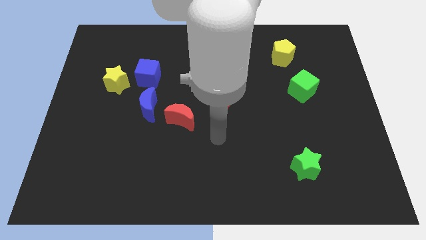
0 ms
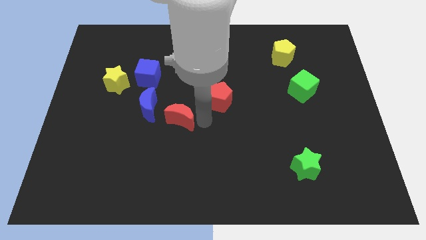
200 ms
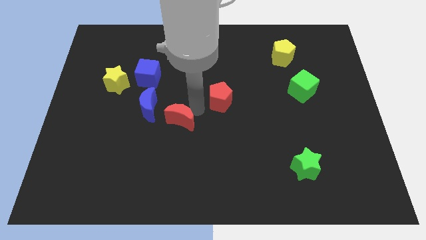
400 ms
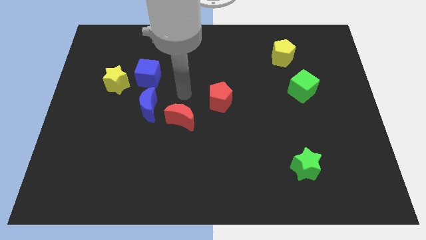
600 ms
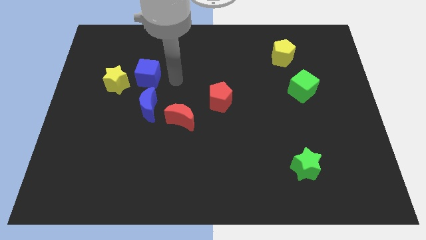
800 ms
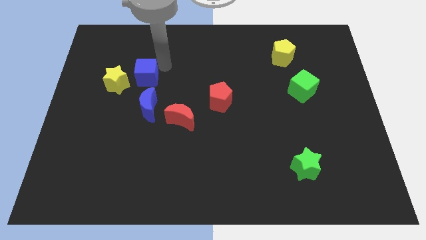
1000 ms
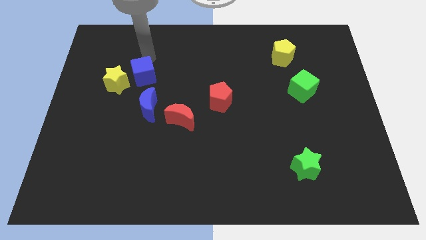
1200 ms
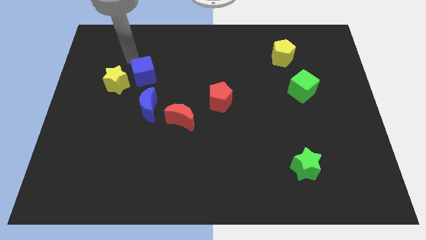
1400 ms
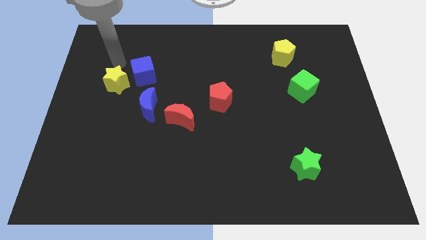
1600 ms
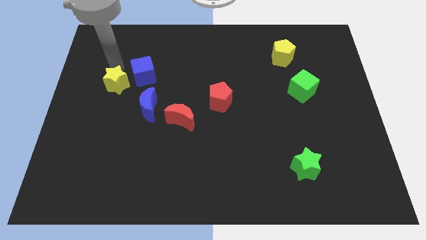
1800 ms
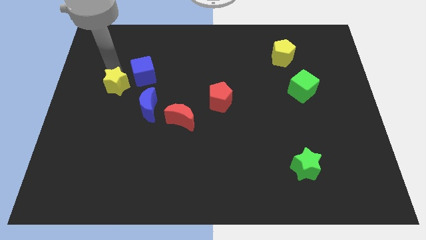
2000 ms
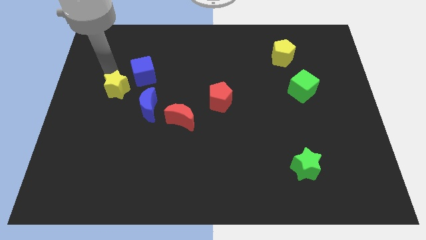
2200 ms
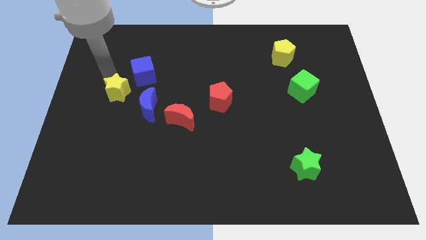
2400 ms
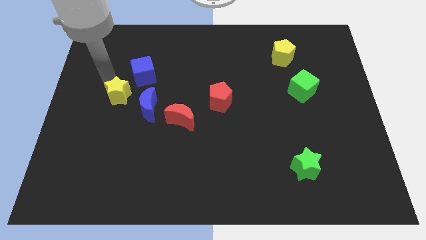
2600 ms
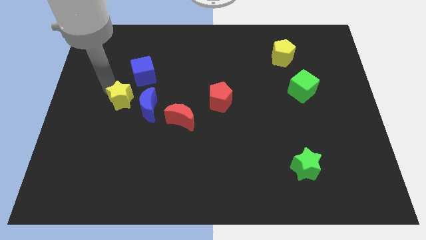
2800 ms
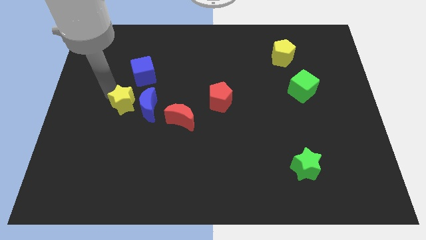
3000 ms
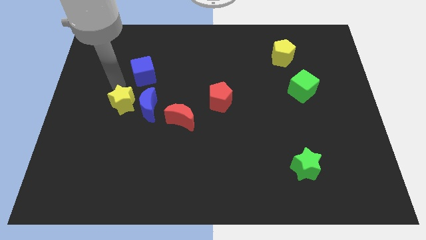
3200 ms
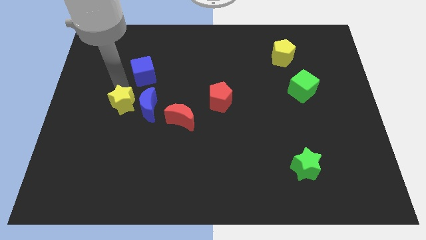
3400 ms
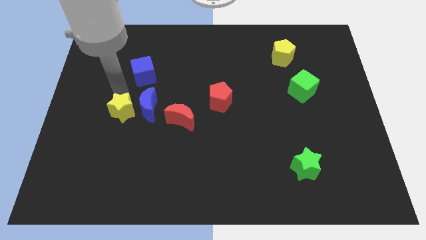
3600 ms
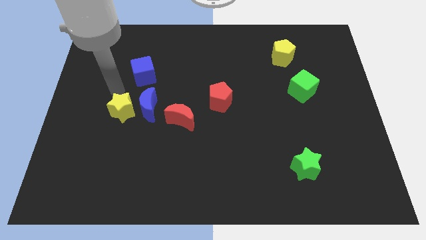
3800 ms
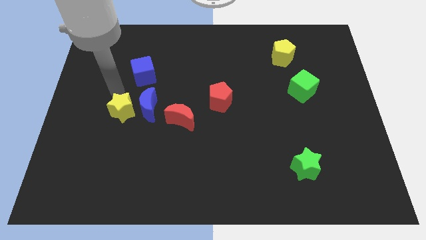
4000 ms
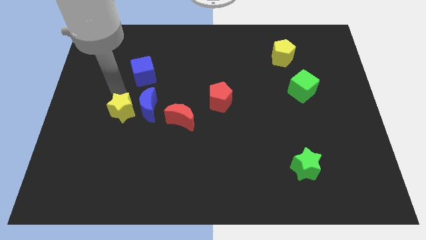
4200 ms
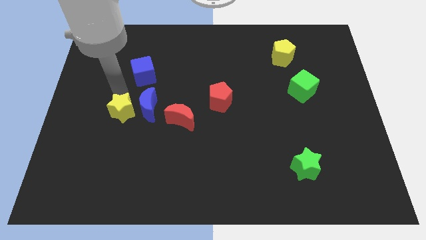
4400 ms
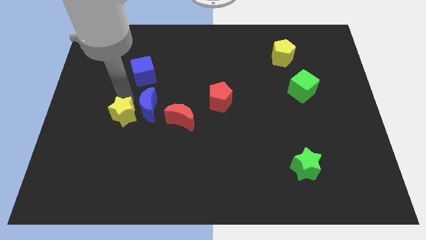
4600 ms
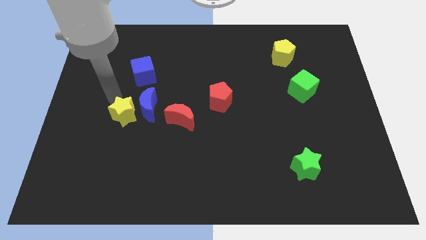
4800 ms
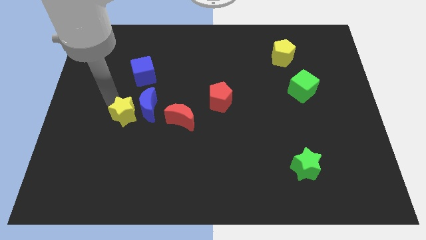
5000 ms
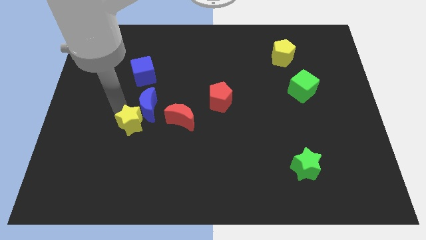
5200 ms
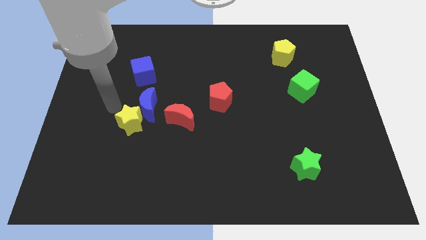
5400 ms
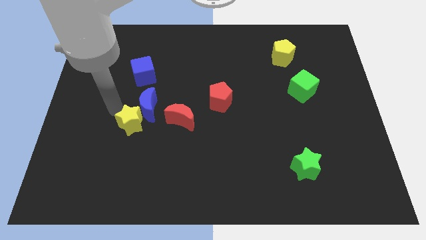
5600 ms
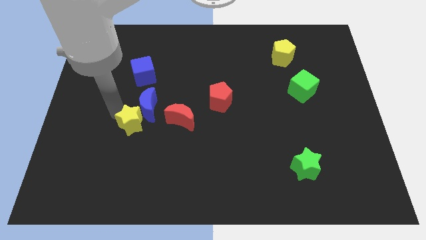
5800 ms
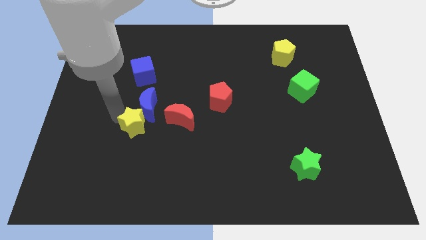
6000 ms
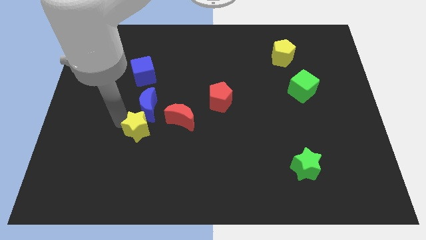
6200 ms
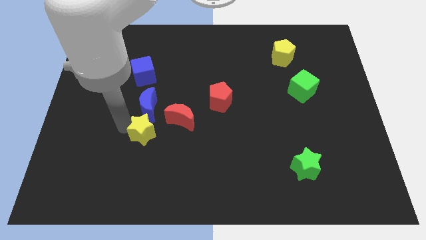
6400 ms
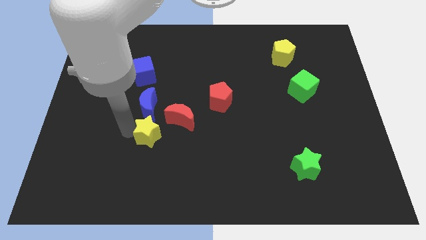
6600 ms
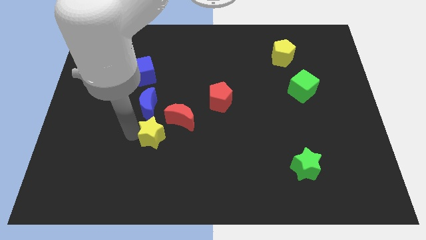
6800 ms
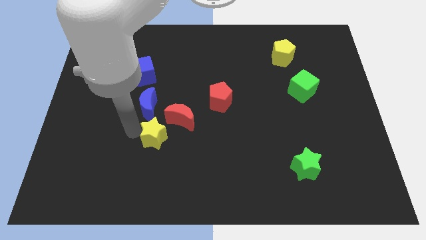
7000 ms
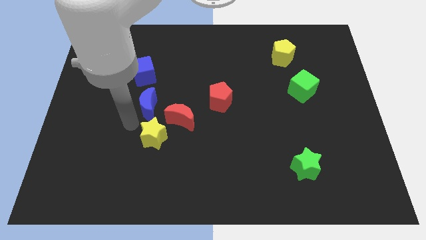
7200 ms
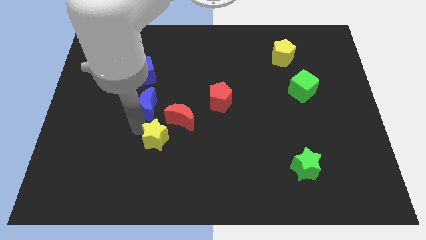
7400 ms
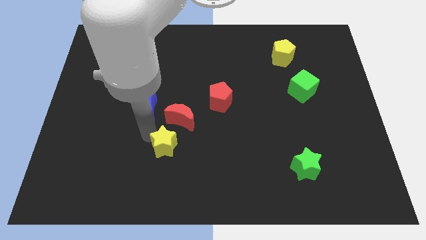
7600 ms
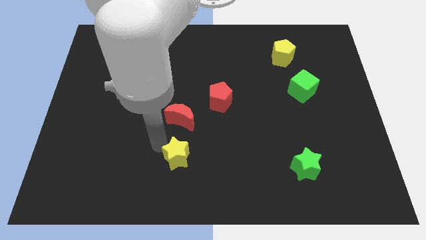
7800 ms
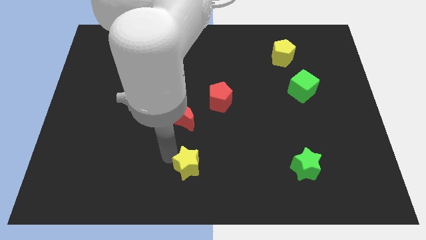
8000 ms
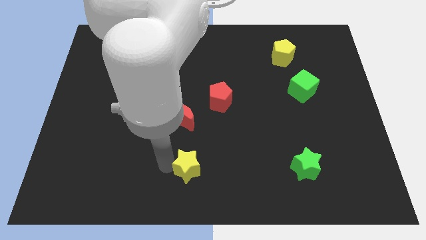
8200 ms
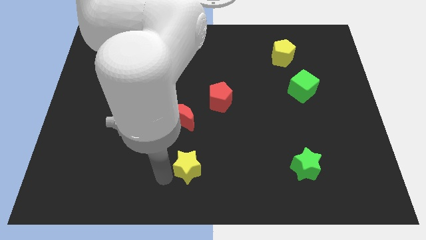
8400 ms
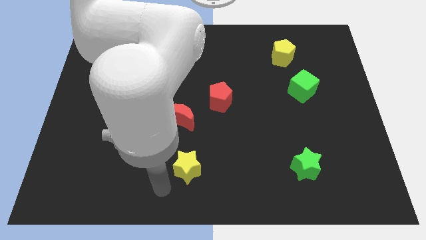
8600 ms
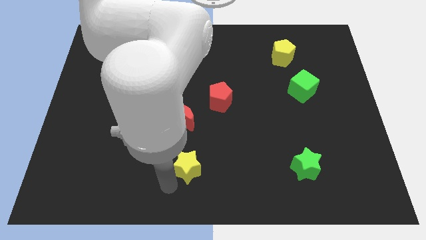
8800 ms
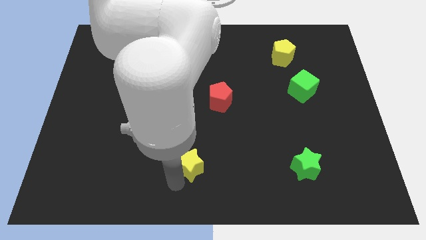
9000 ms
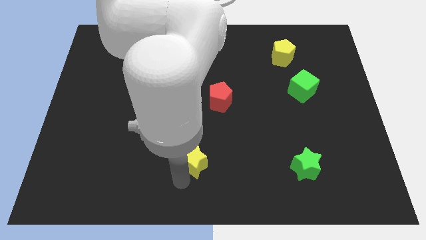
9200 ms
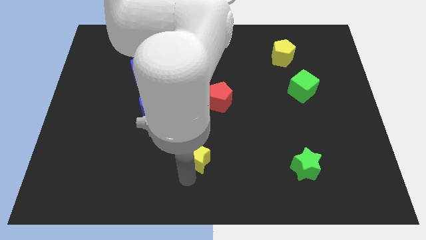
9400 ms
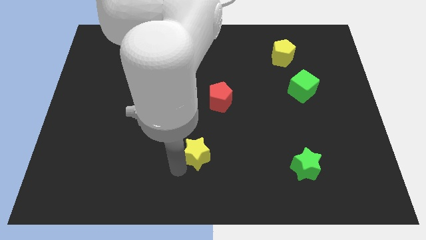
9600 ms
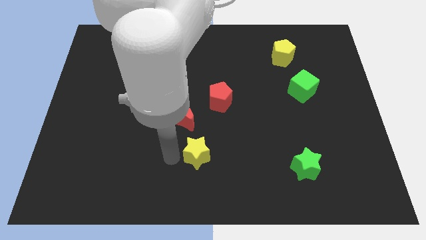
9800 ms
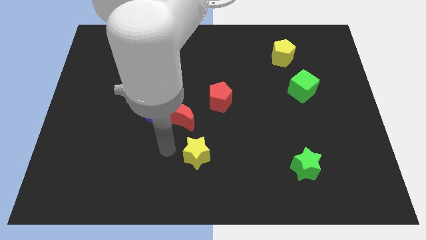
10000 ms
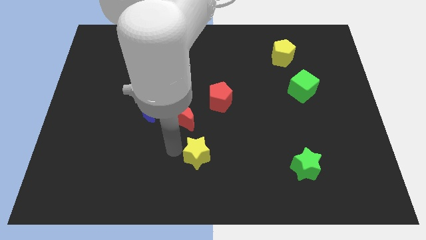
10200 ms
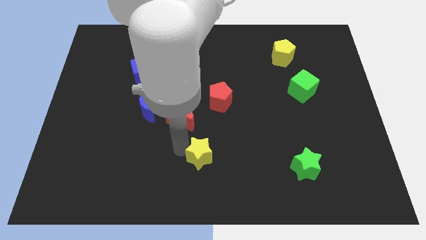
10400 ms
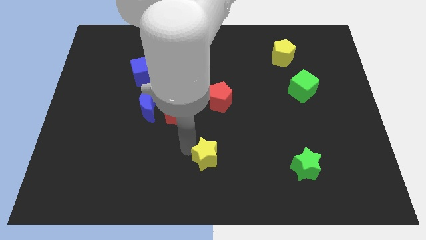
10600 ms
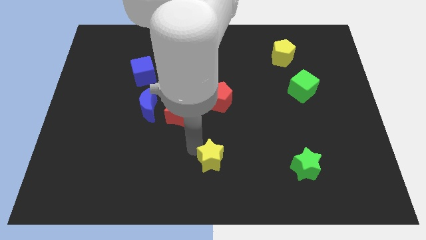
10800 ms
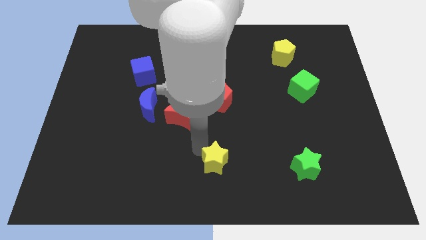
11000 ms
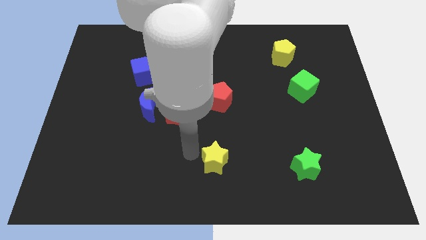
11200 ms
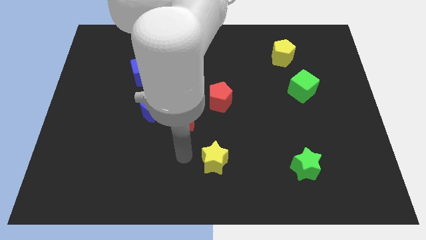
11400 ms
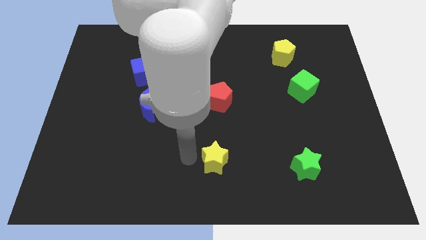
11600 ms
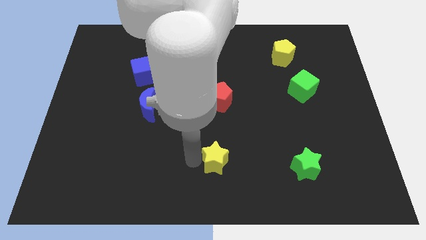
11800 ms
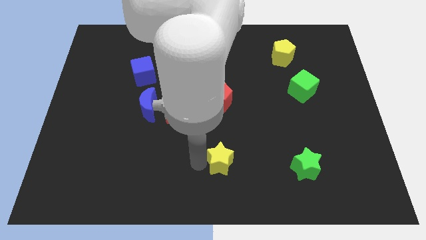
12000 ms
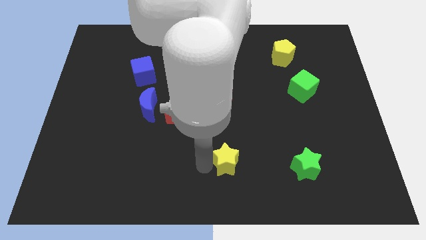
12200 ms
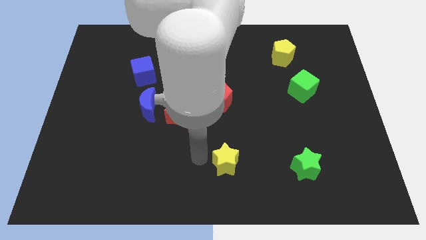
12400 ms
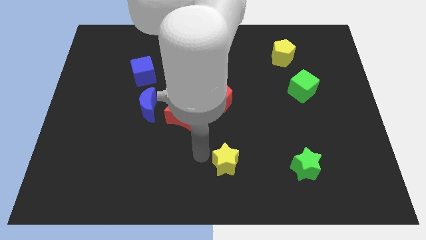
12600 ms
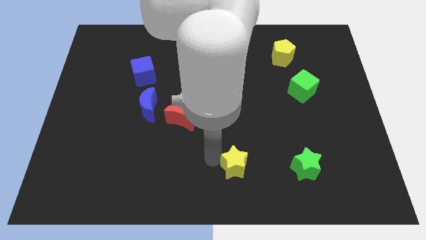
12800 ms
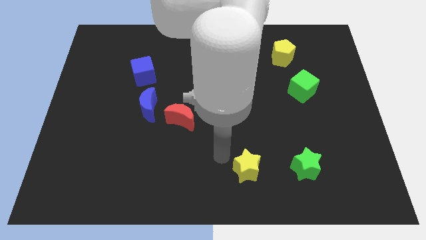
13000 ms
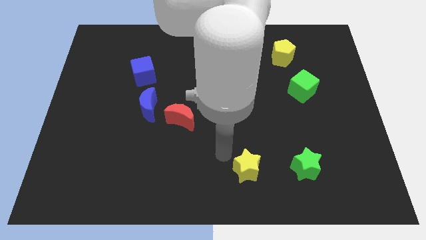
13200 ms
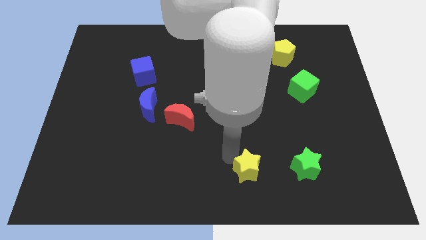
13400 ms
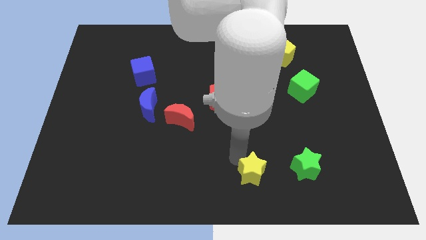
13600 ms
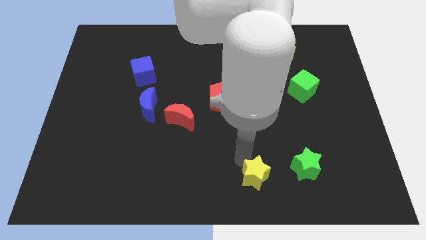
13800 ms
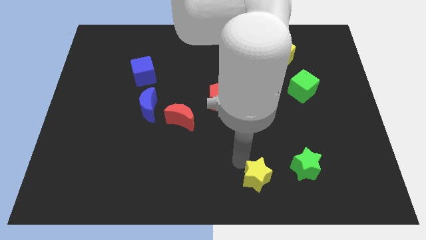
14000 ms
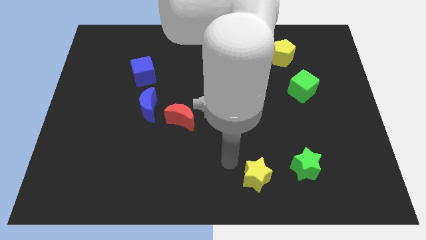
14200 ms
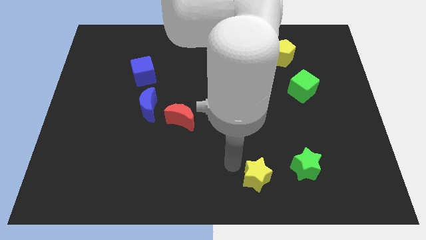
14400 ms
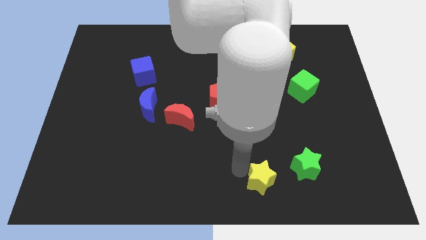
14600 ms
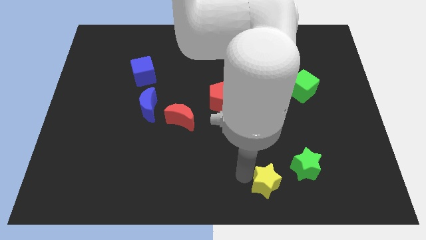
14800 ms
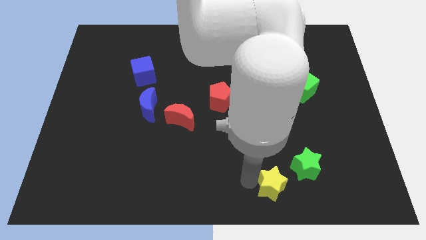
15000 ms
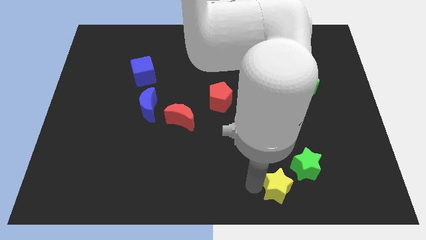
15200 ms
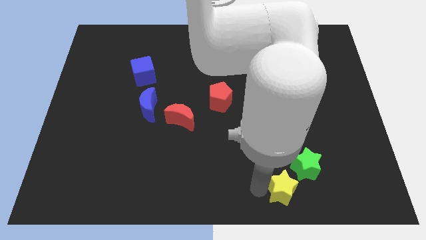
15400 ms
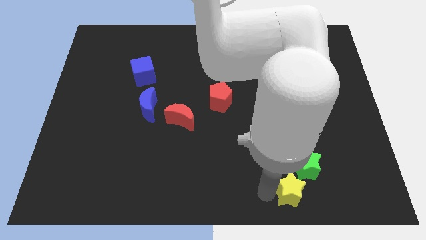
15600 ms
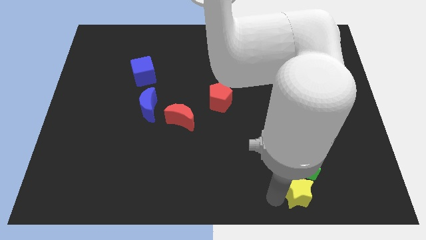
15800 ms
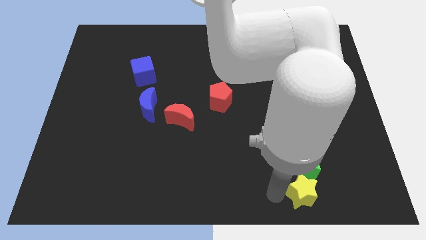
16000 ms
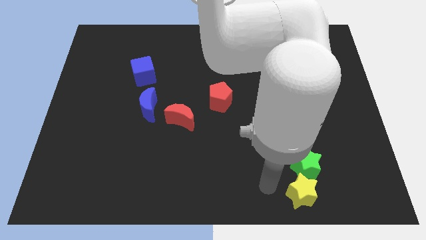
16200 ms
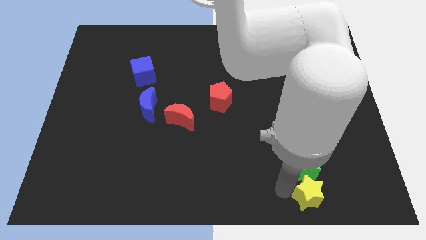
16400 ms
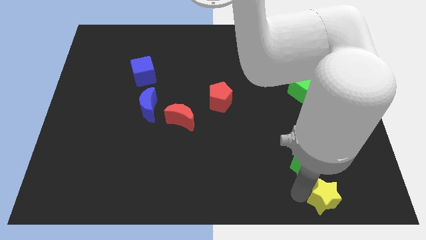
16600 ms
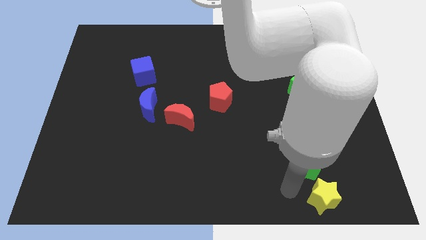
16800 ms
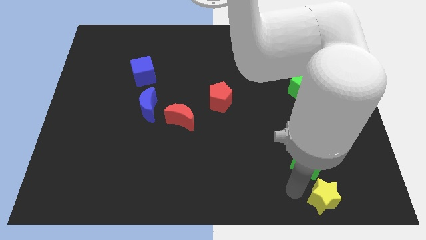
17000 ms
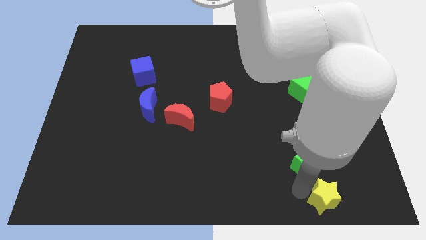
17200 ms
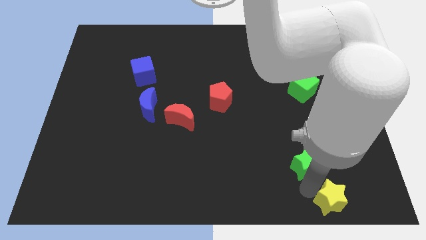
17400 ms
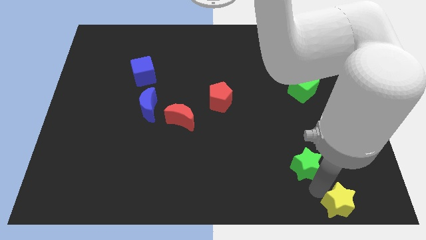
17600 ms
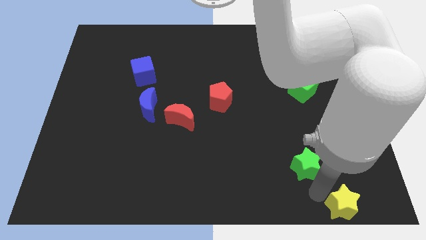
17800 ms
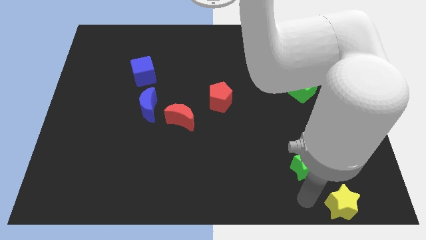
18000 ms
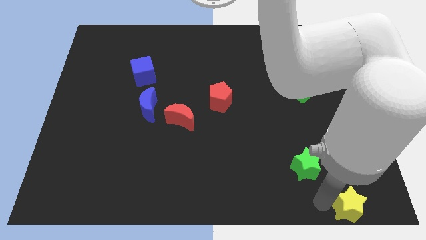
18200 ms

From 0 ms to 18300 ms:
push the yellow star to the bottom right corner
